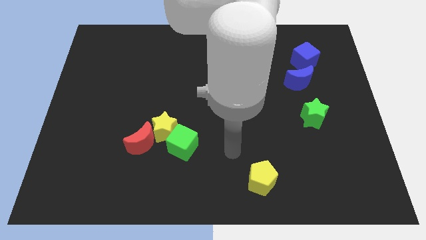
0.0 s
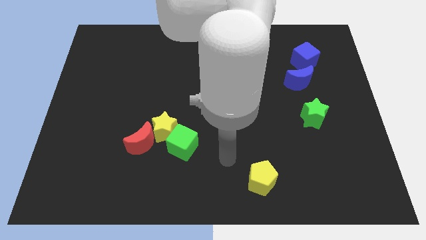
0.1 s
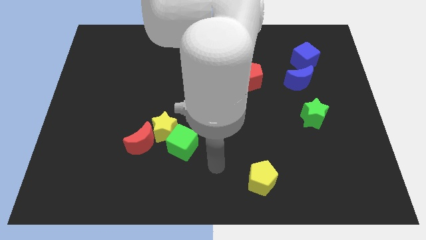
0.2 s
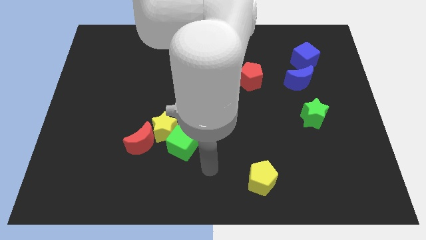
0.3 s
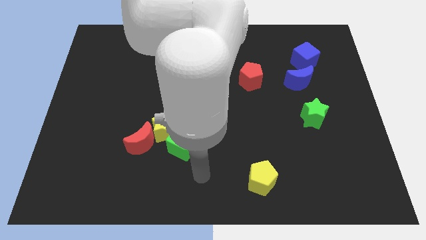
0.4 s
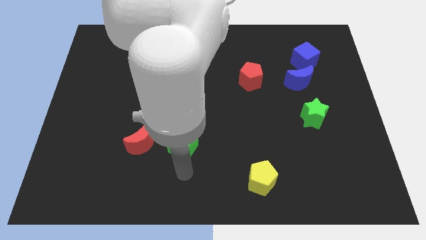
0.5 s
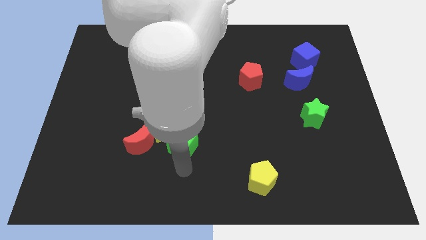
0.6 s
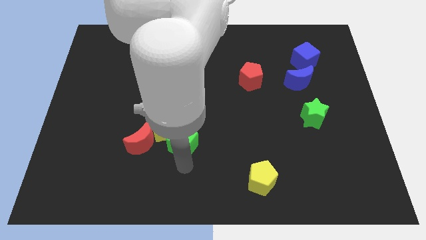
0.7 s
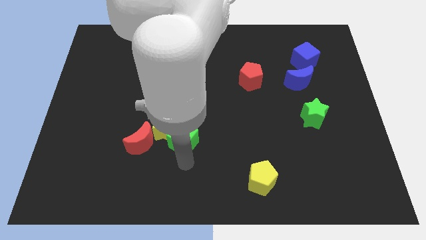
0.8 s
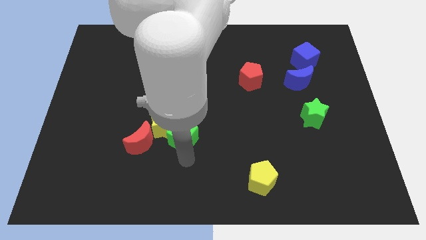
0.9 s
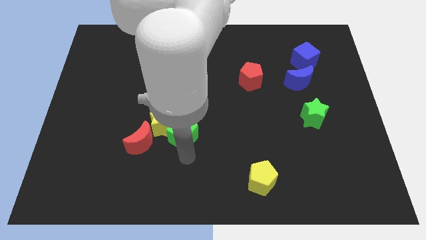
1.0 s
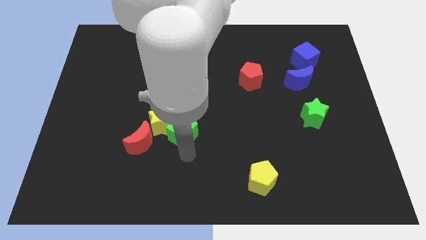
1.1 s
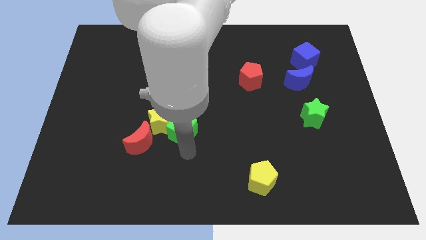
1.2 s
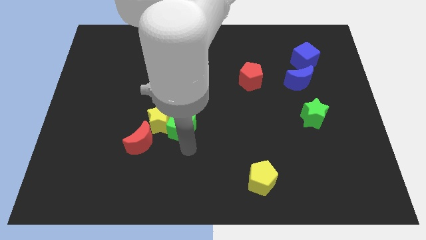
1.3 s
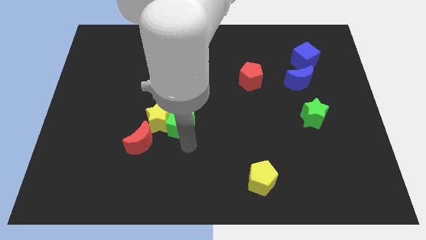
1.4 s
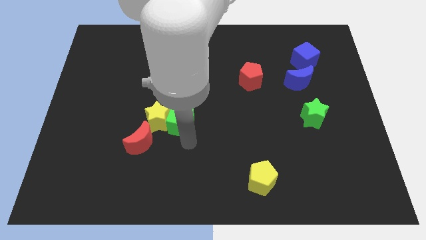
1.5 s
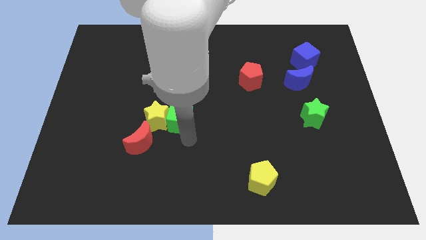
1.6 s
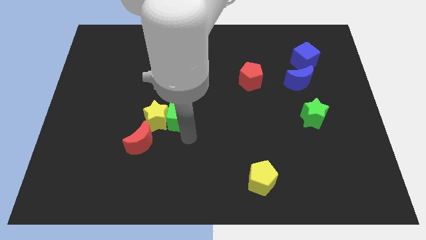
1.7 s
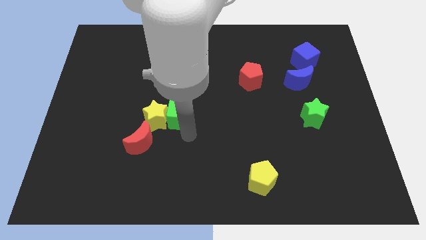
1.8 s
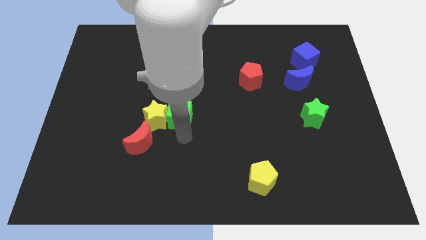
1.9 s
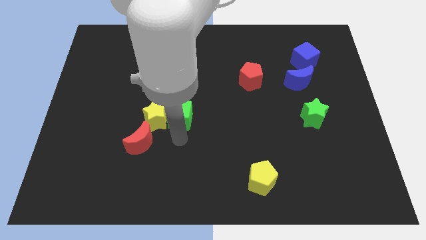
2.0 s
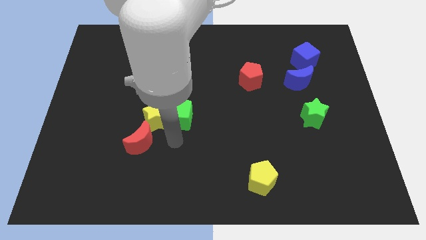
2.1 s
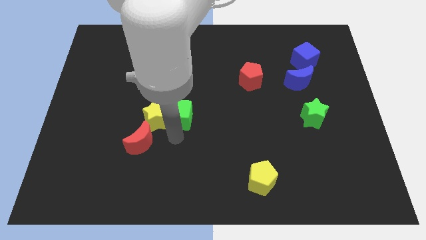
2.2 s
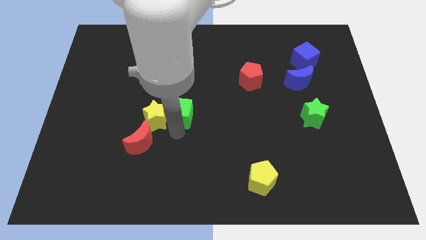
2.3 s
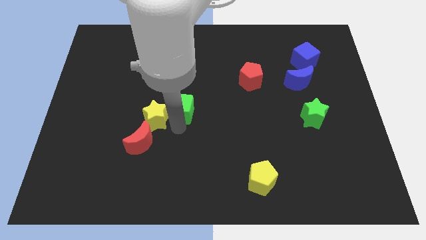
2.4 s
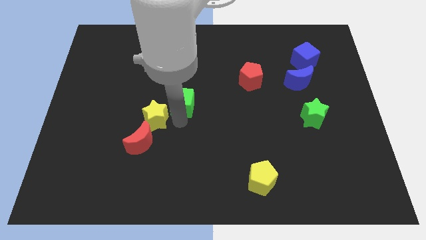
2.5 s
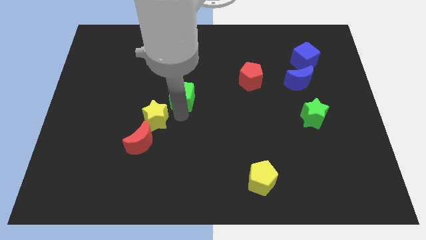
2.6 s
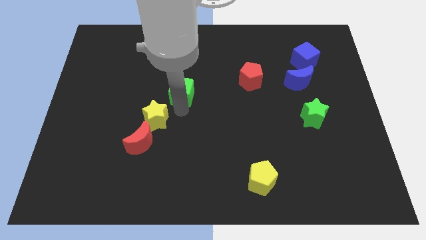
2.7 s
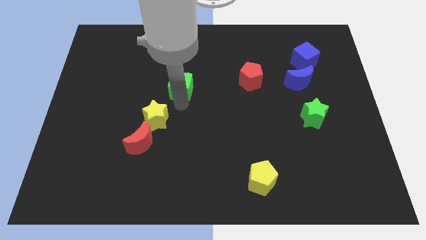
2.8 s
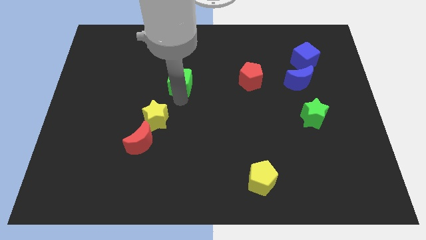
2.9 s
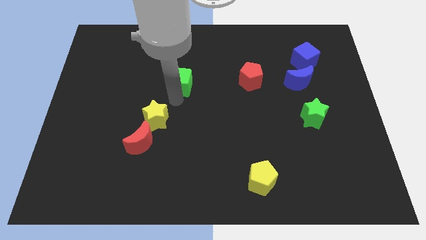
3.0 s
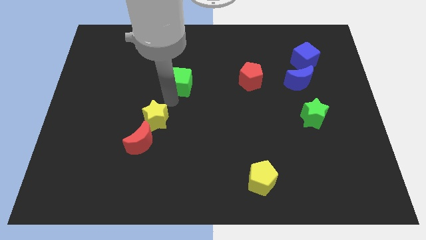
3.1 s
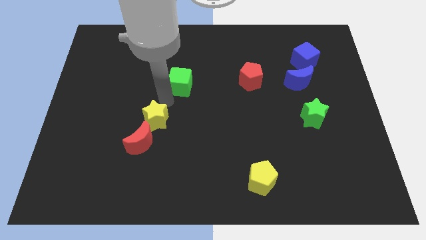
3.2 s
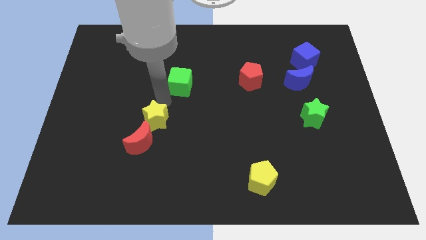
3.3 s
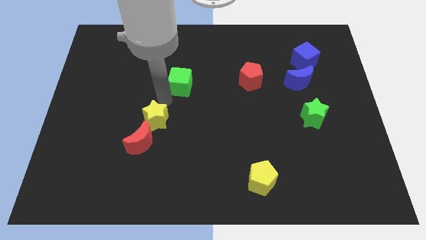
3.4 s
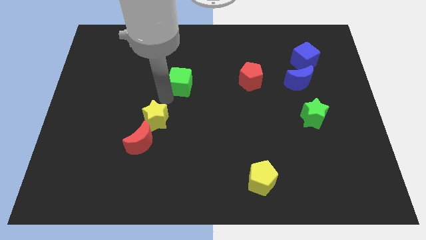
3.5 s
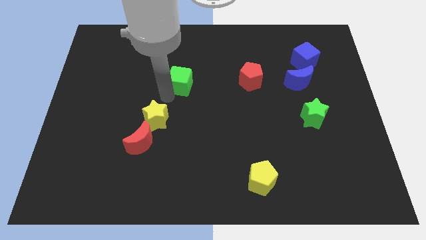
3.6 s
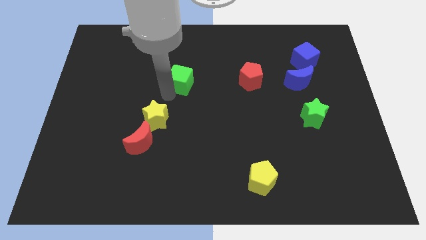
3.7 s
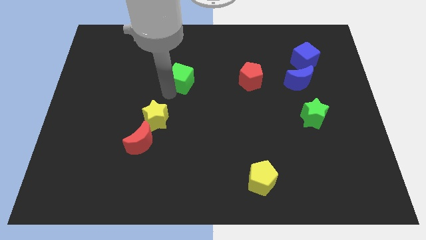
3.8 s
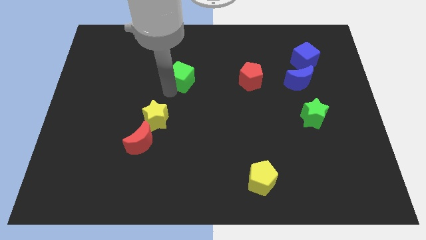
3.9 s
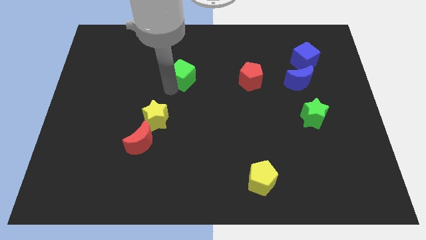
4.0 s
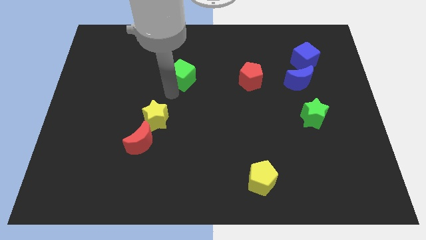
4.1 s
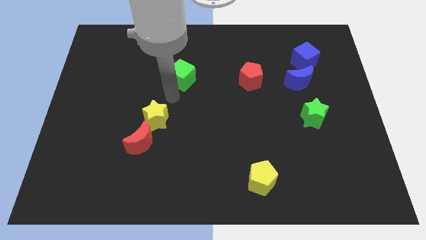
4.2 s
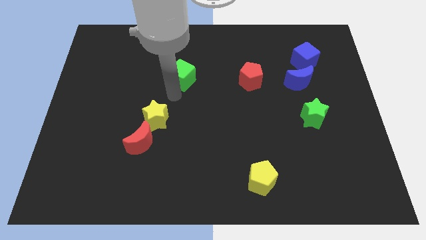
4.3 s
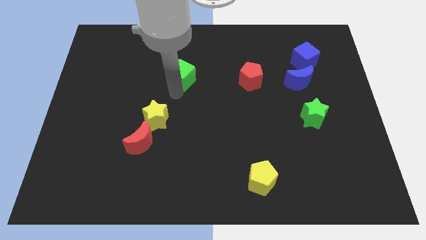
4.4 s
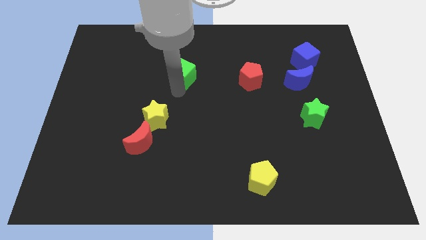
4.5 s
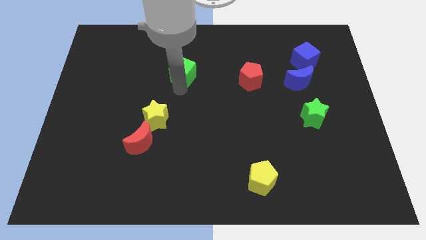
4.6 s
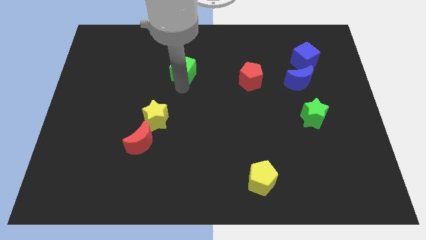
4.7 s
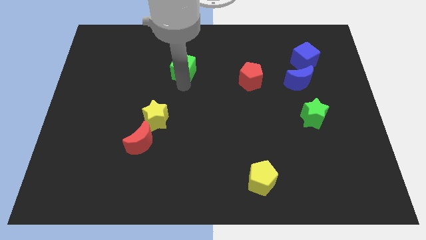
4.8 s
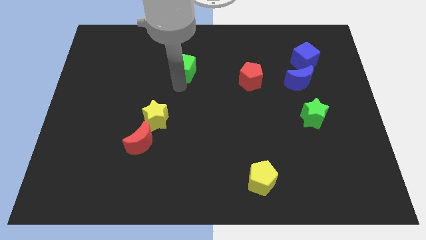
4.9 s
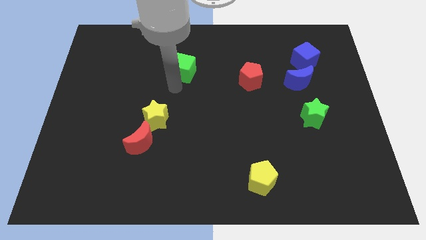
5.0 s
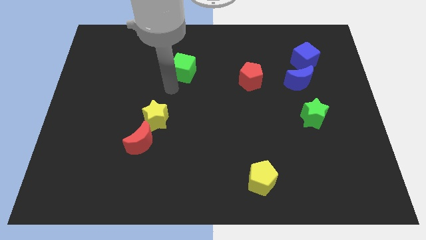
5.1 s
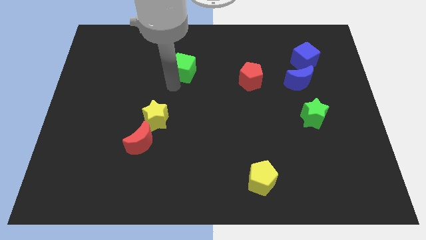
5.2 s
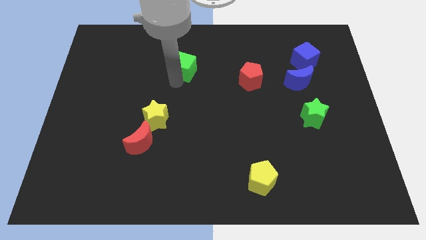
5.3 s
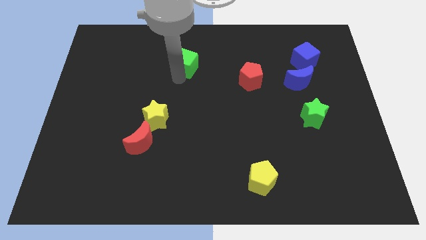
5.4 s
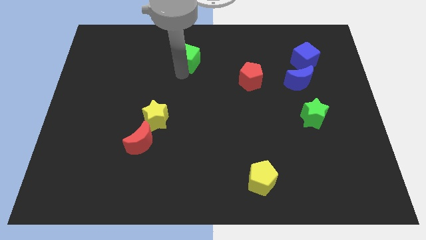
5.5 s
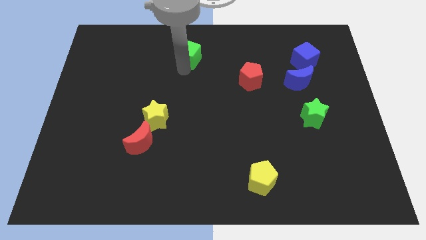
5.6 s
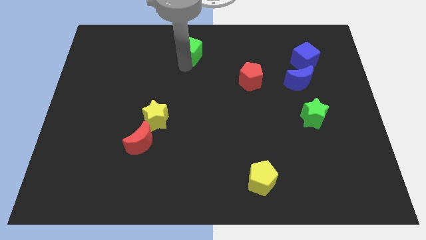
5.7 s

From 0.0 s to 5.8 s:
move the green cube to the towards your base
